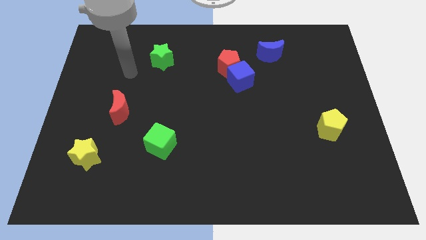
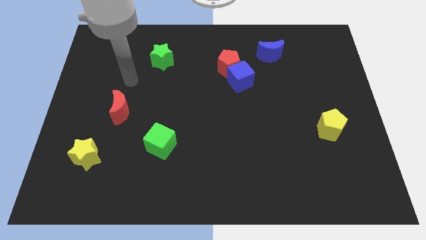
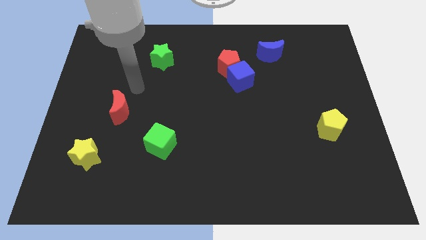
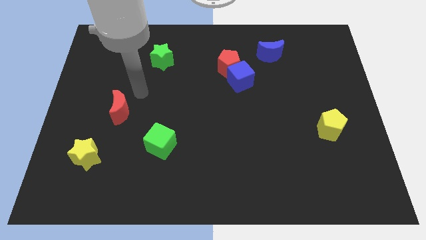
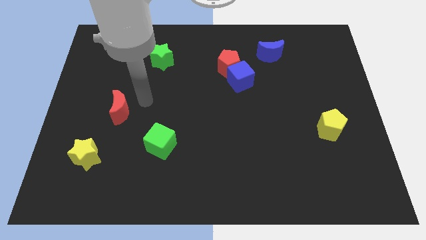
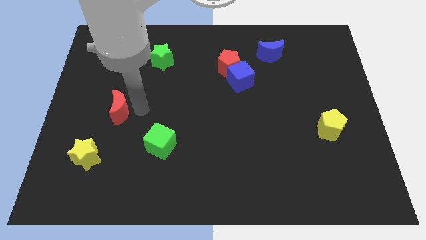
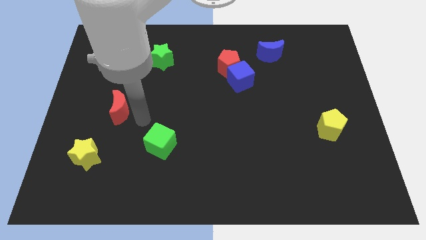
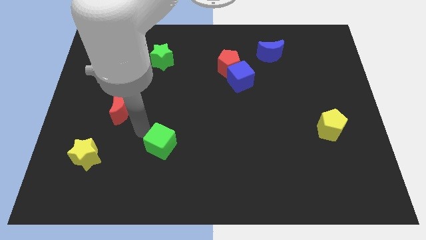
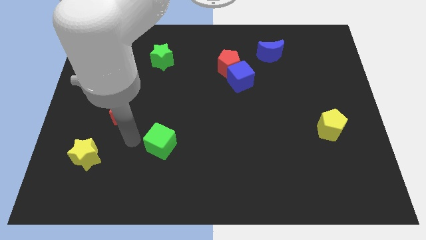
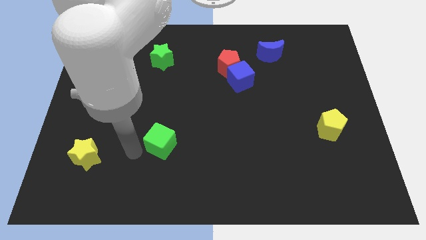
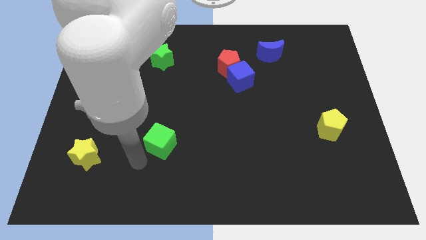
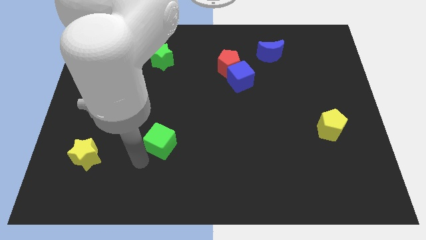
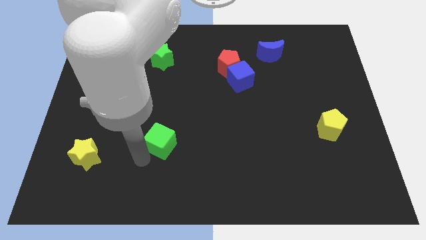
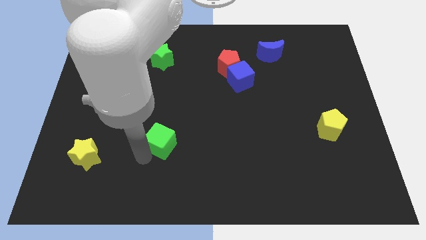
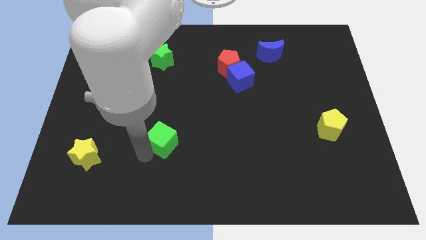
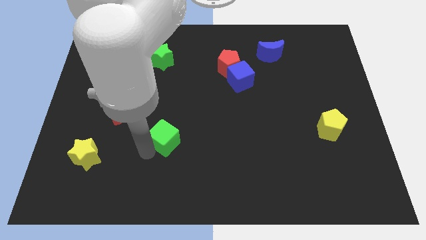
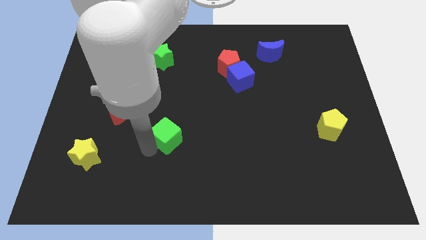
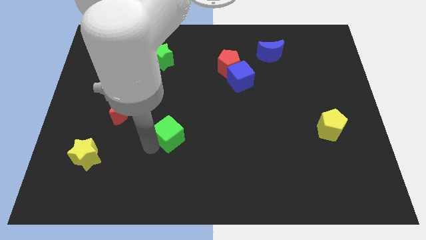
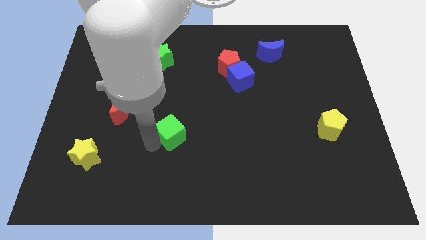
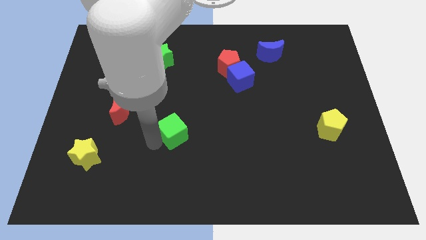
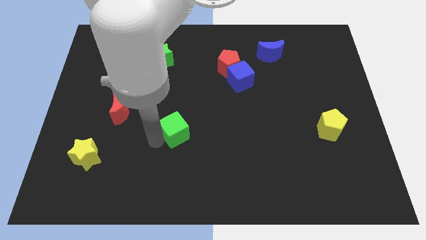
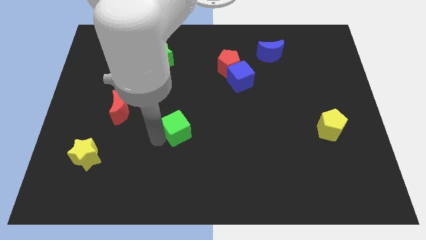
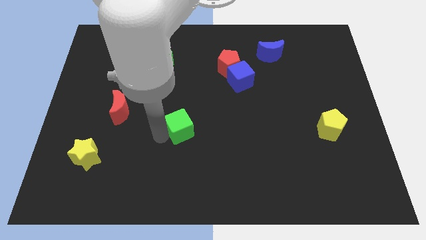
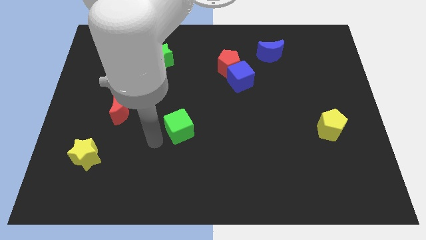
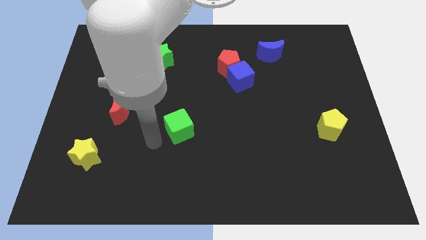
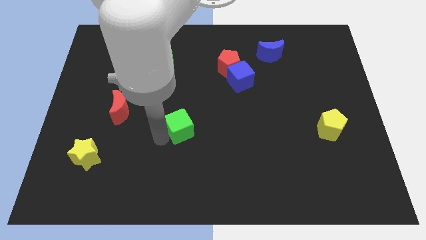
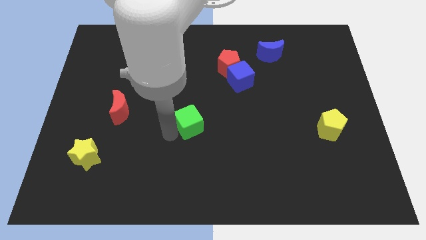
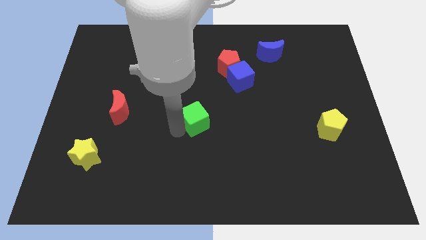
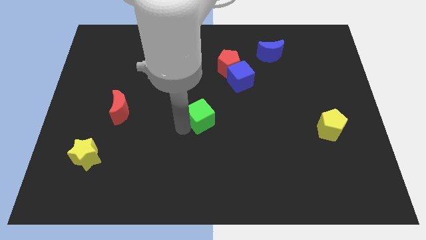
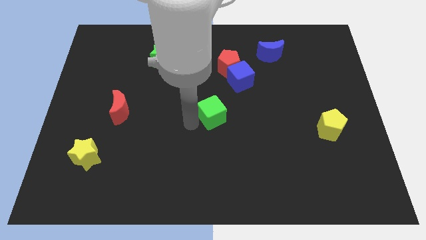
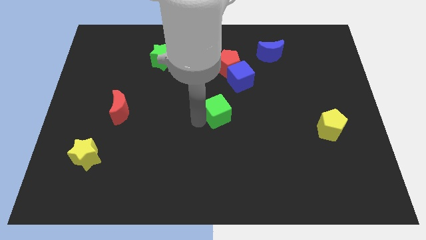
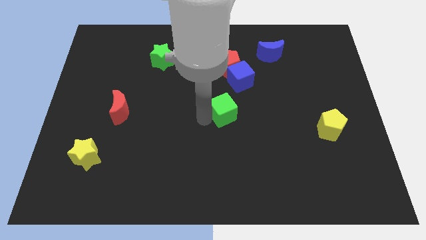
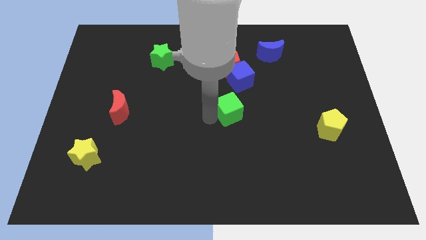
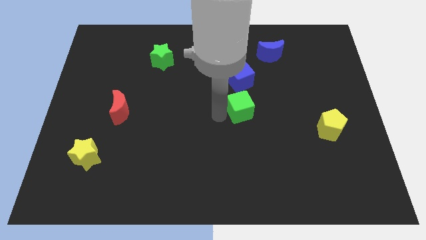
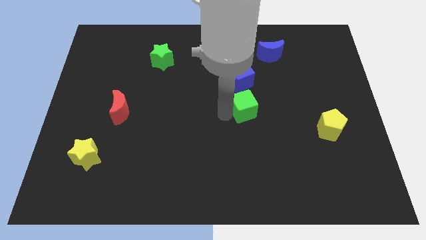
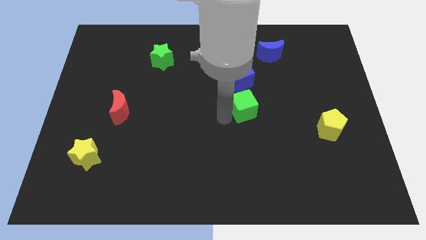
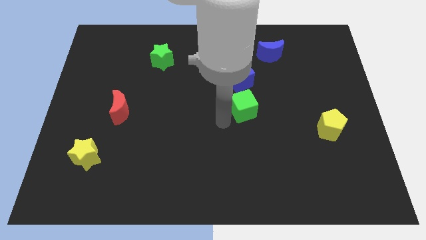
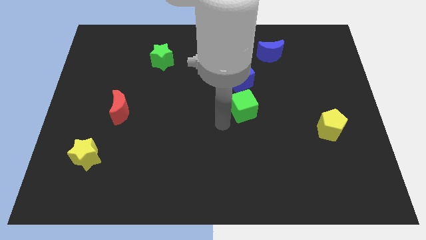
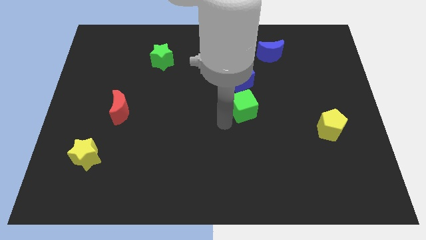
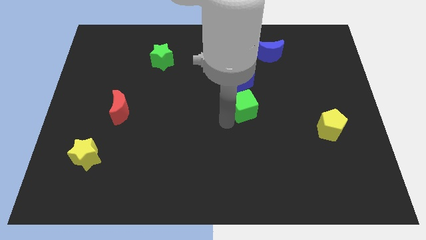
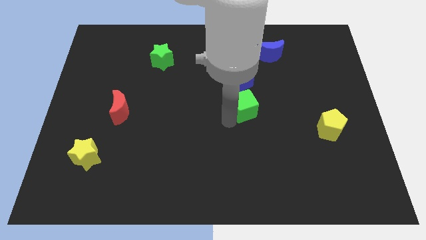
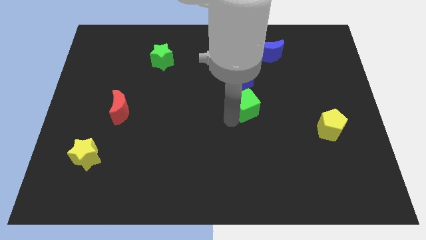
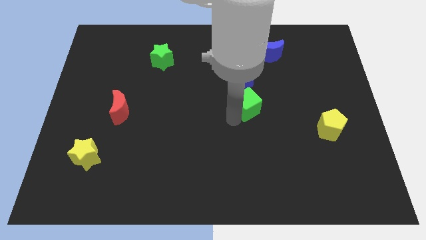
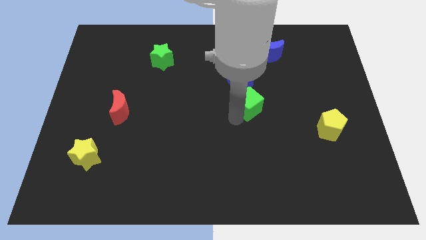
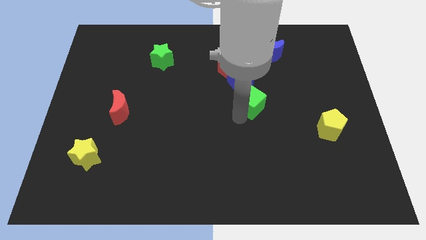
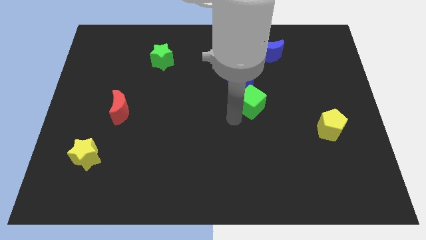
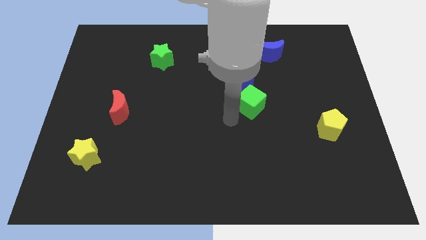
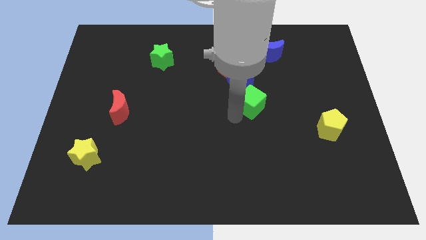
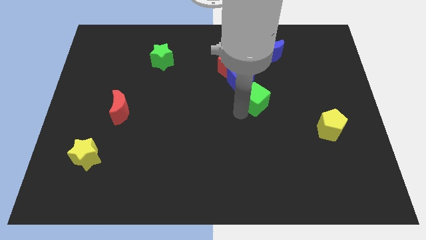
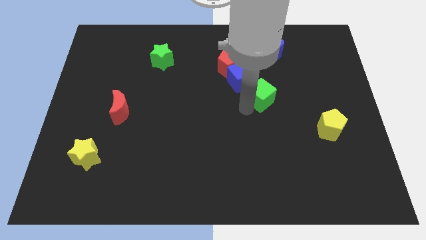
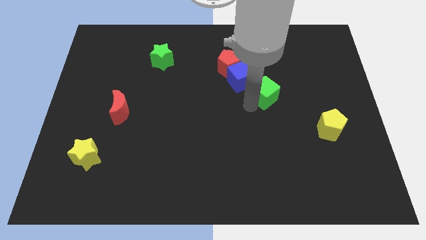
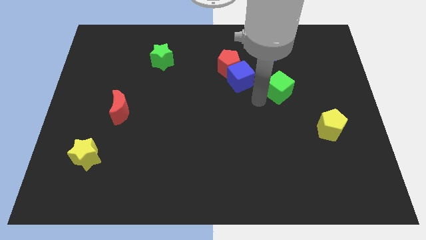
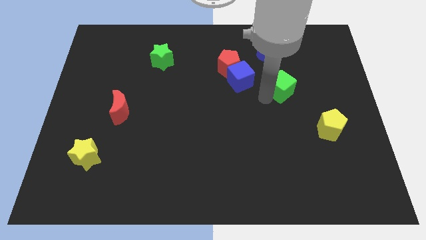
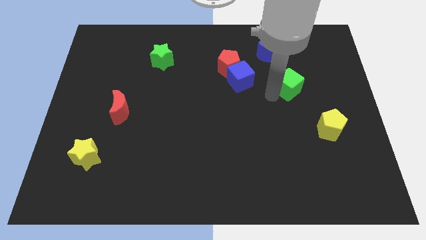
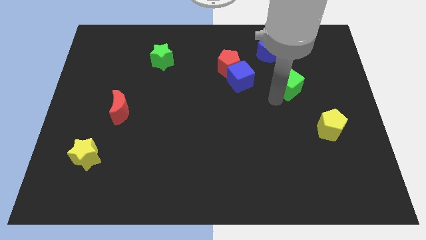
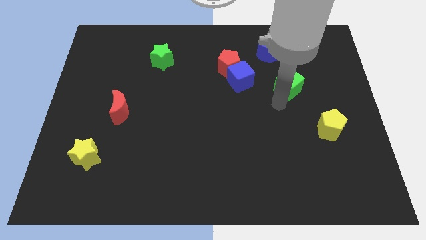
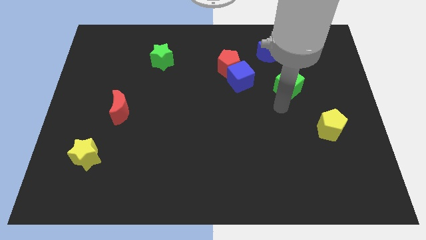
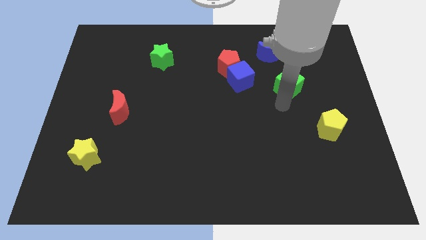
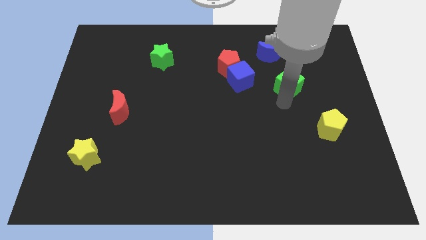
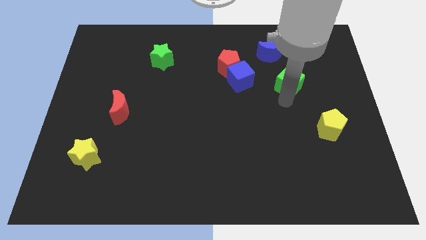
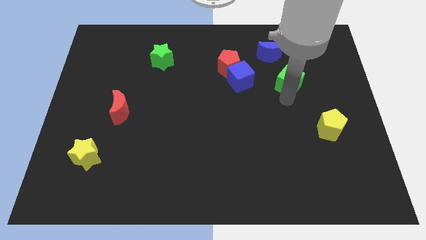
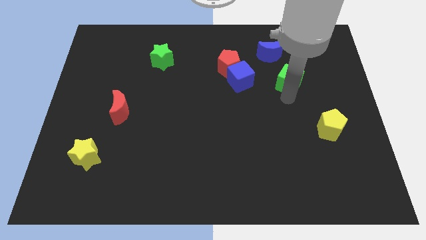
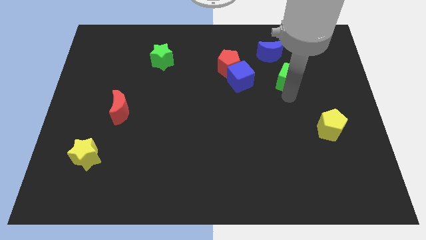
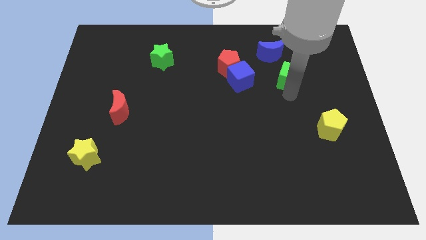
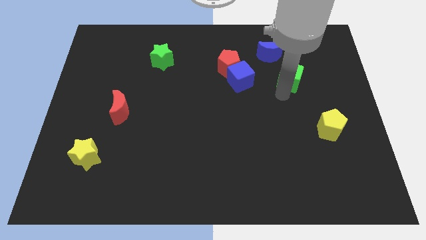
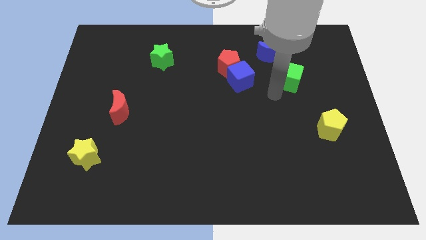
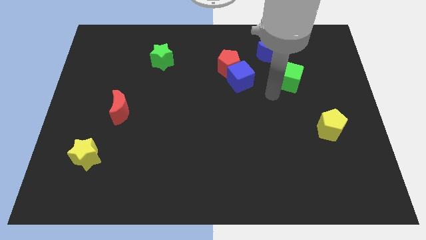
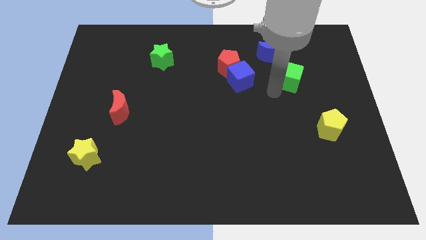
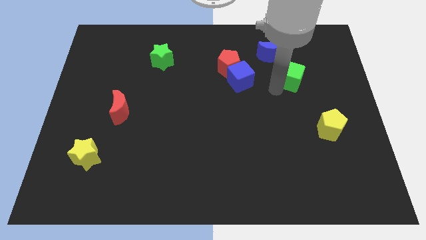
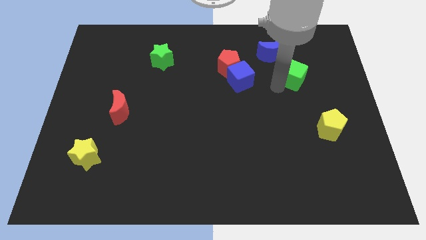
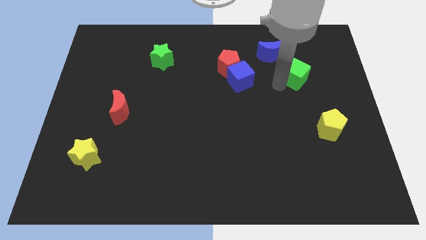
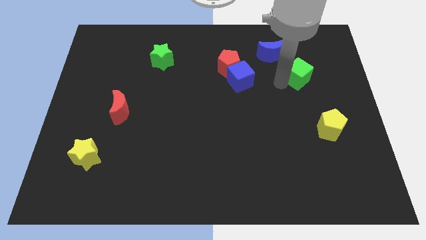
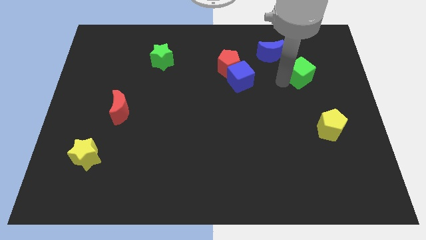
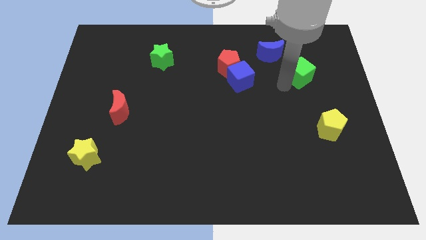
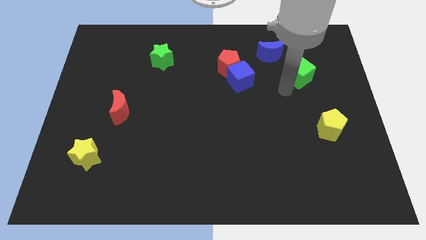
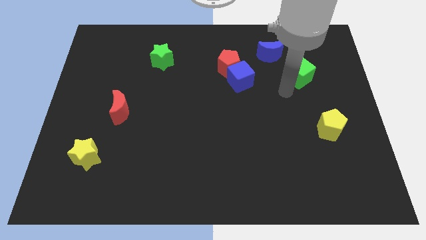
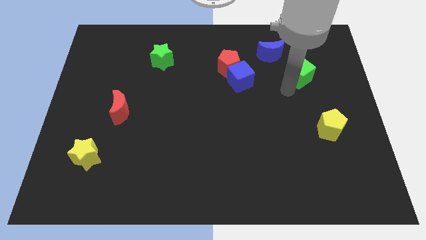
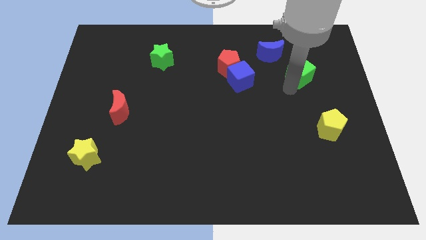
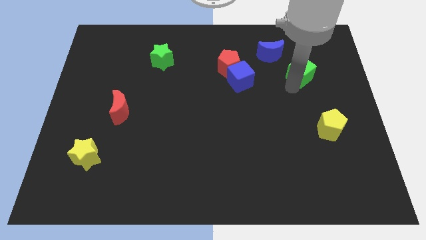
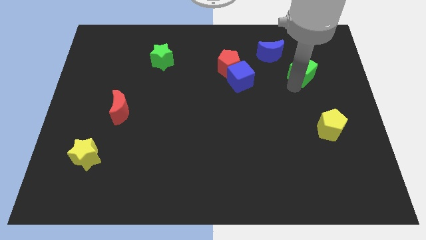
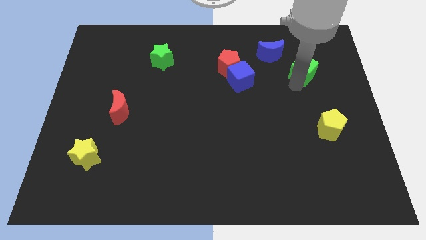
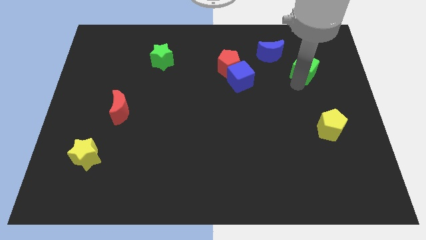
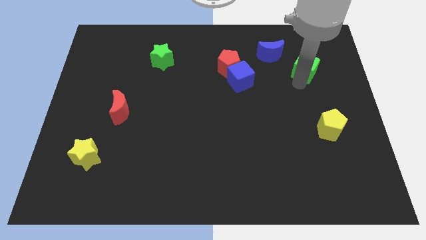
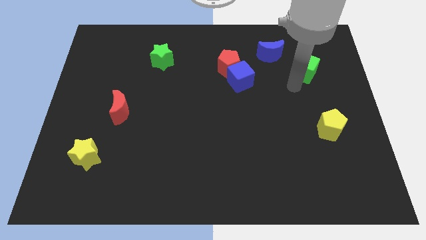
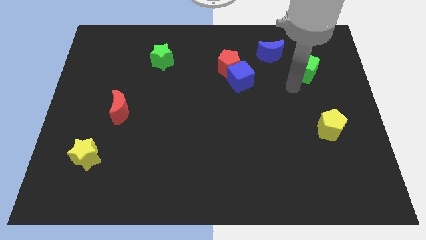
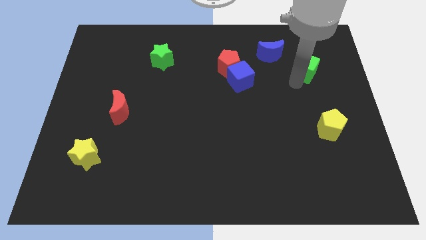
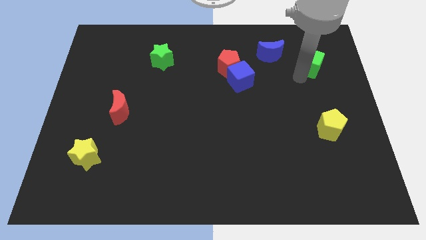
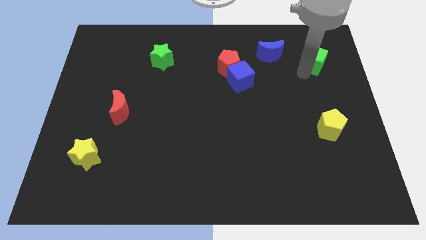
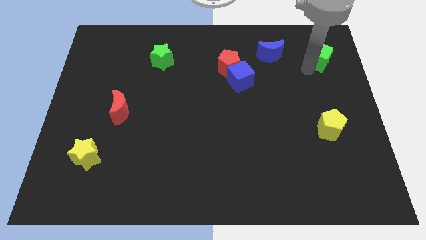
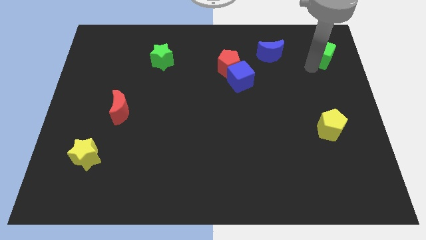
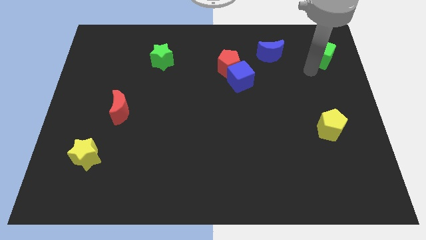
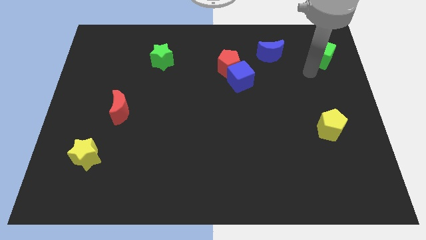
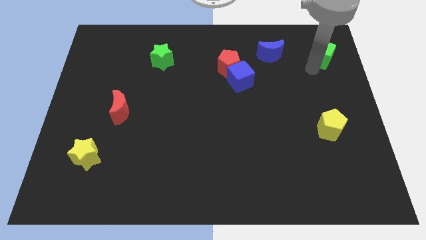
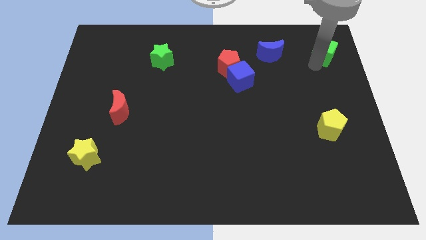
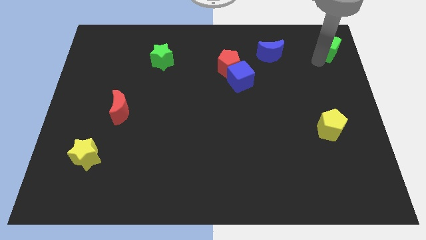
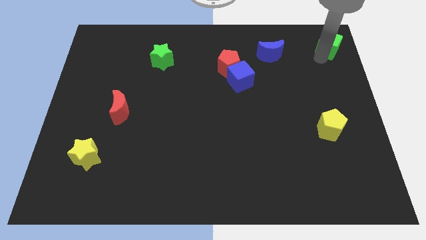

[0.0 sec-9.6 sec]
push the green cube to the top right
